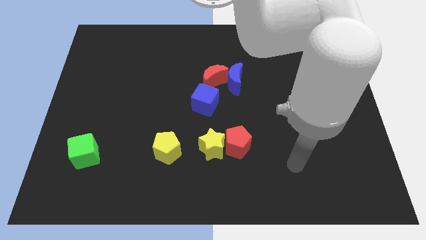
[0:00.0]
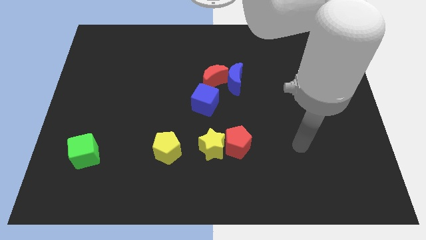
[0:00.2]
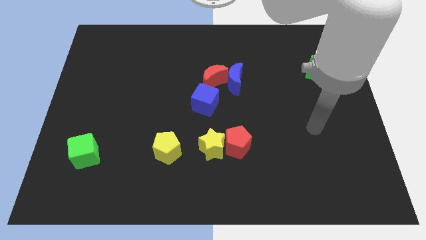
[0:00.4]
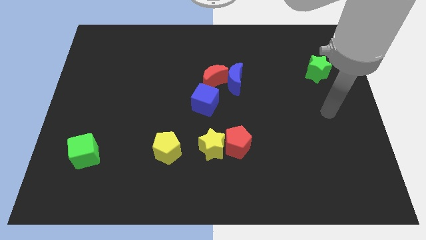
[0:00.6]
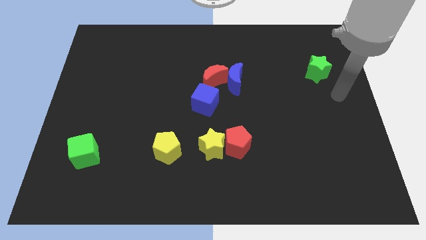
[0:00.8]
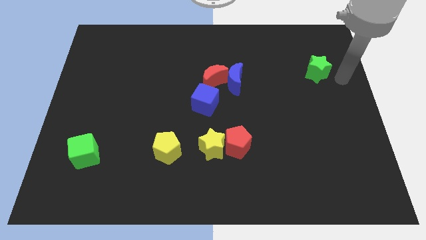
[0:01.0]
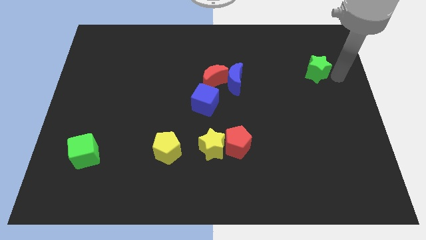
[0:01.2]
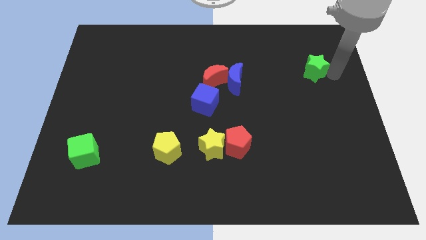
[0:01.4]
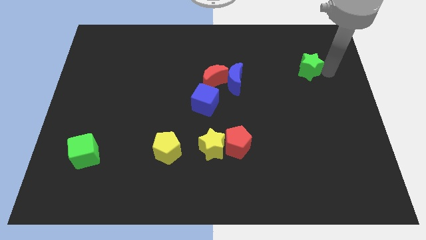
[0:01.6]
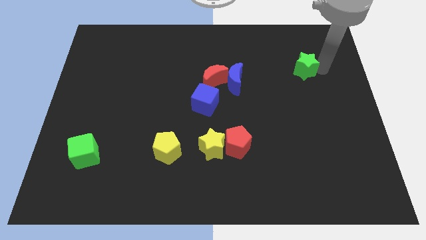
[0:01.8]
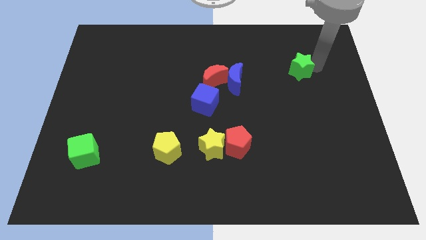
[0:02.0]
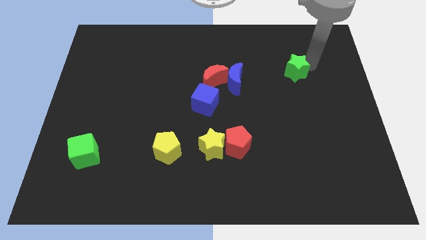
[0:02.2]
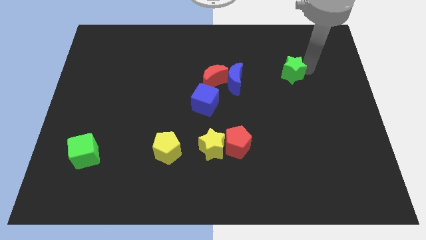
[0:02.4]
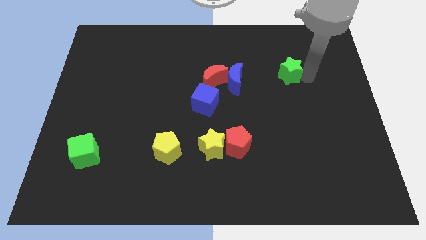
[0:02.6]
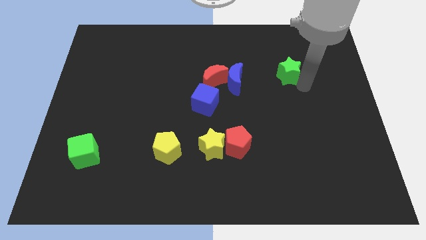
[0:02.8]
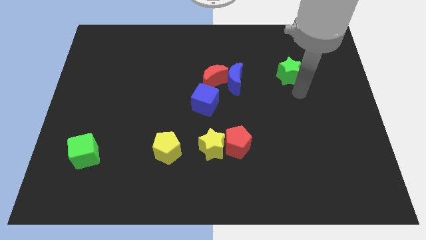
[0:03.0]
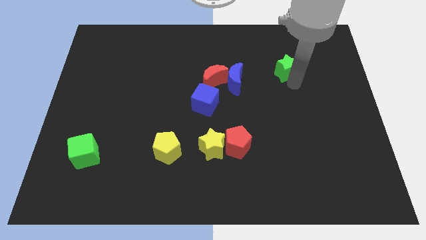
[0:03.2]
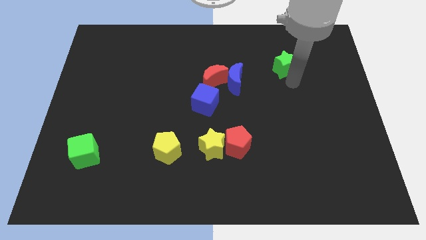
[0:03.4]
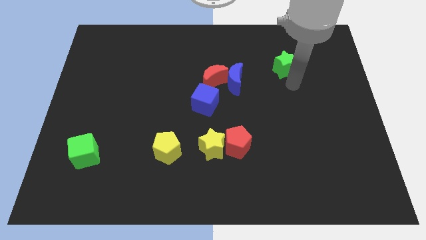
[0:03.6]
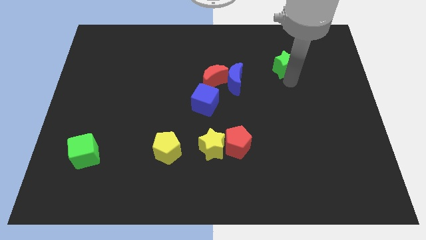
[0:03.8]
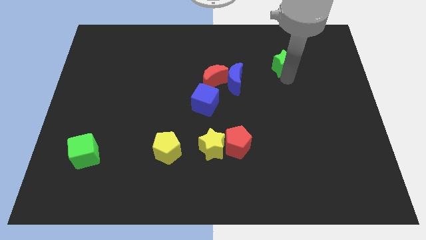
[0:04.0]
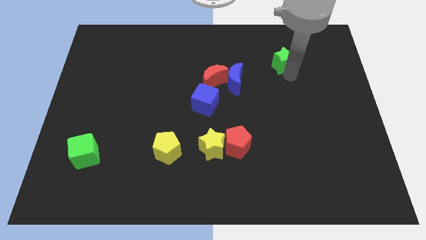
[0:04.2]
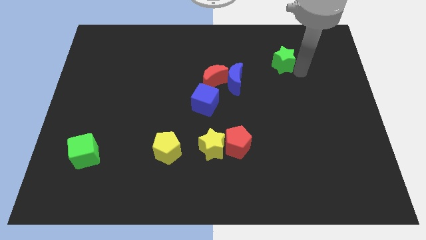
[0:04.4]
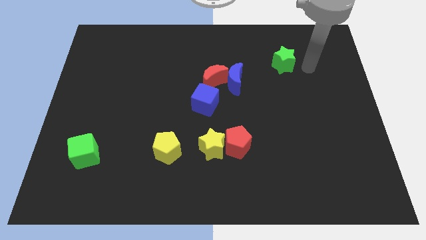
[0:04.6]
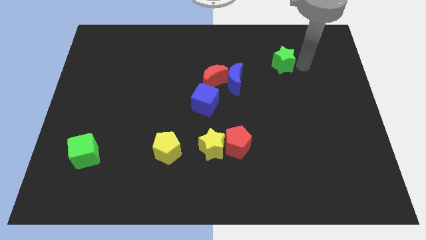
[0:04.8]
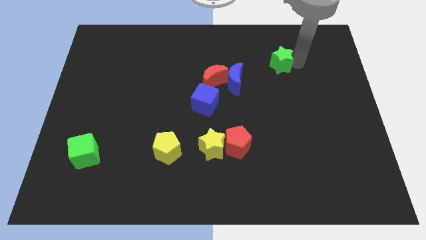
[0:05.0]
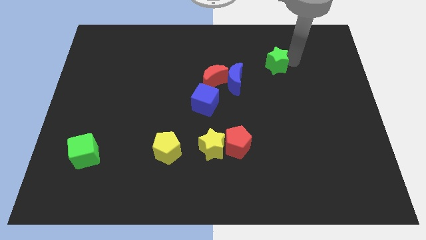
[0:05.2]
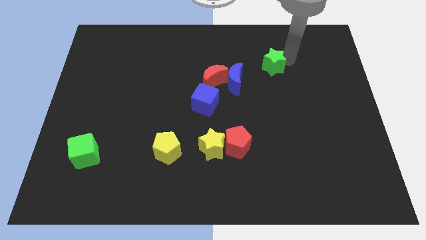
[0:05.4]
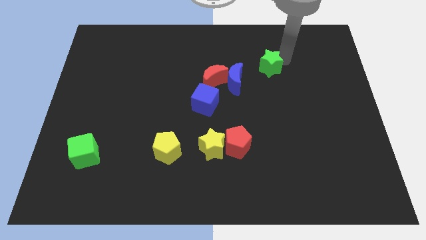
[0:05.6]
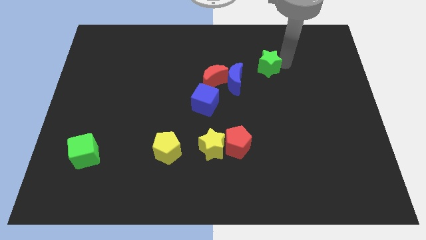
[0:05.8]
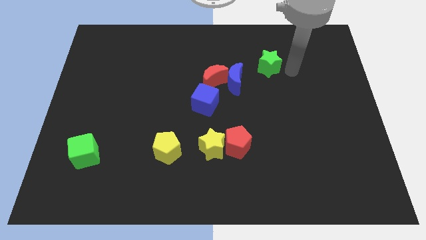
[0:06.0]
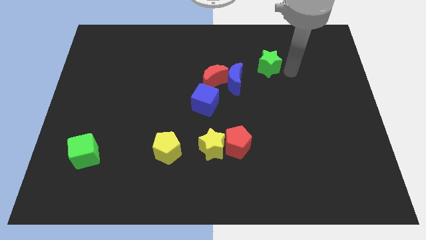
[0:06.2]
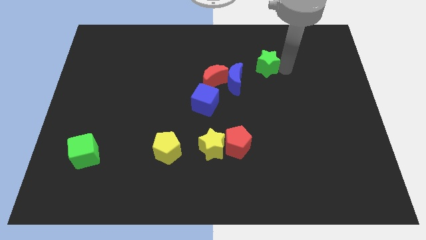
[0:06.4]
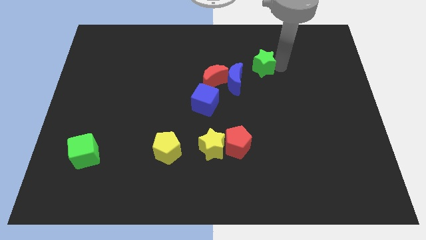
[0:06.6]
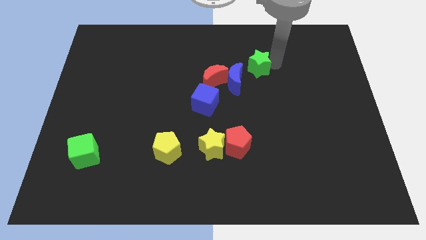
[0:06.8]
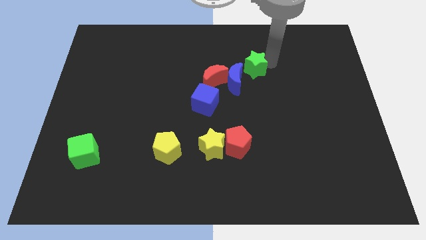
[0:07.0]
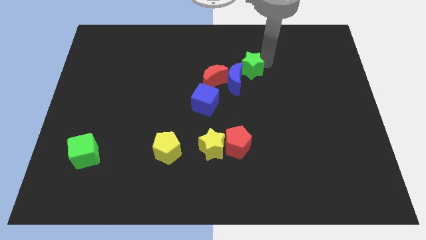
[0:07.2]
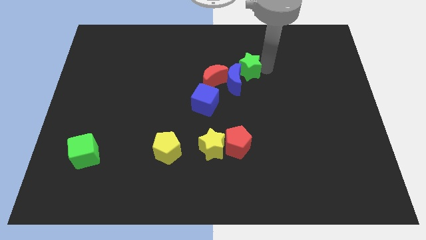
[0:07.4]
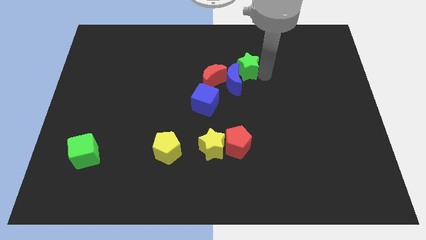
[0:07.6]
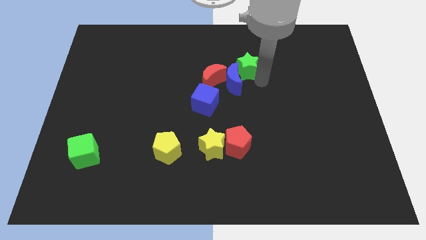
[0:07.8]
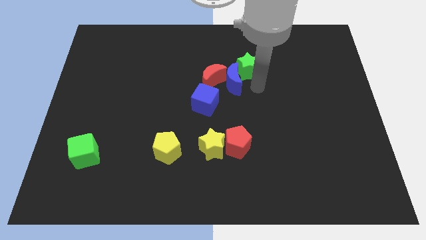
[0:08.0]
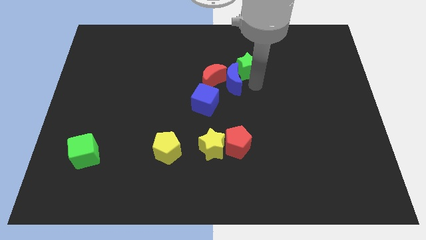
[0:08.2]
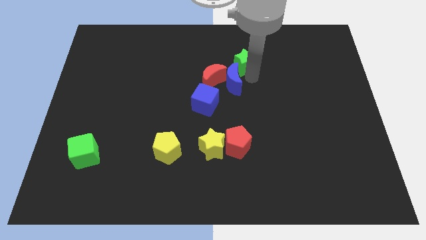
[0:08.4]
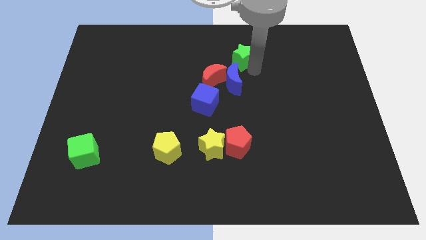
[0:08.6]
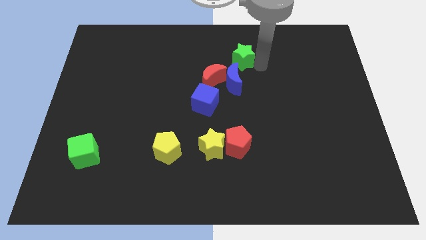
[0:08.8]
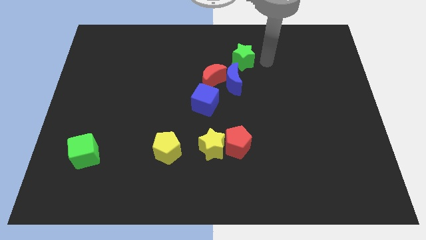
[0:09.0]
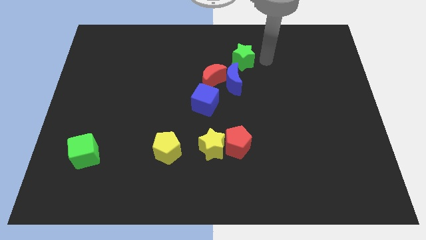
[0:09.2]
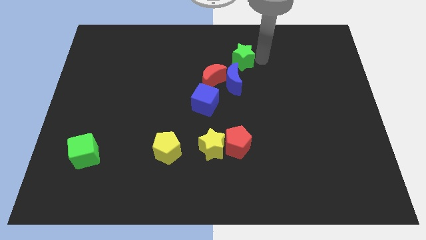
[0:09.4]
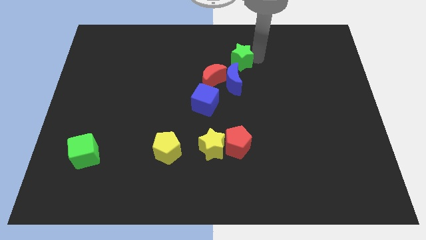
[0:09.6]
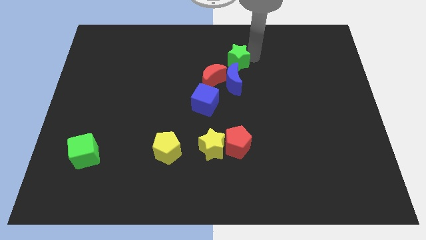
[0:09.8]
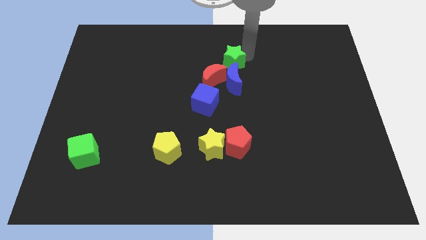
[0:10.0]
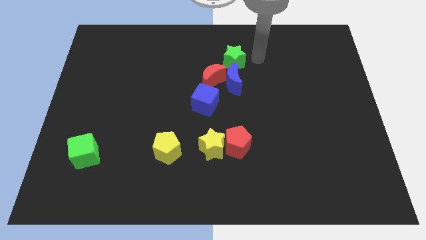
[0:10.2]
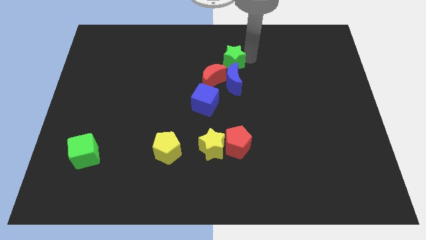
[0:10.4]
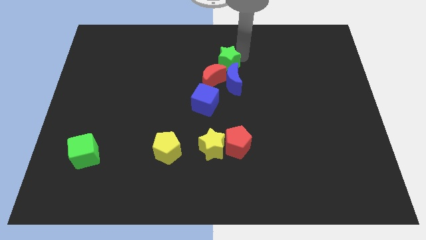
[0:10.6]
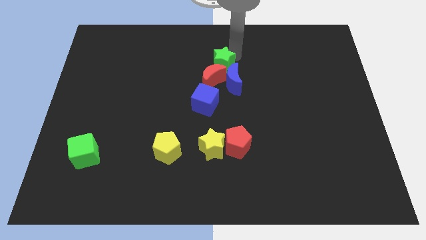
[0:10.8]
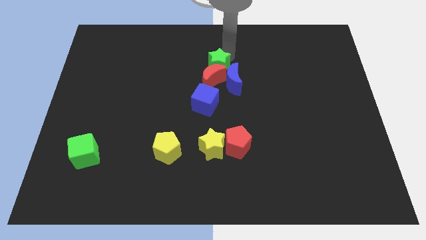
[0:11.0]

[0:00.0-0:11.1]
push the green star to the top left side of the red moon

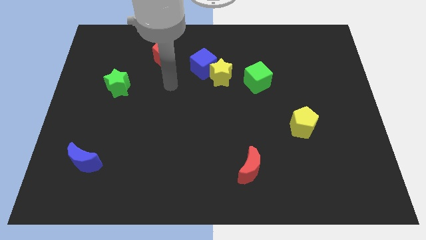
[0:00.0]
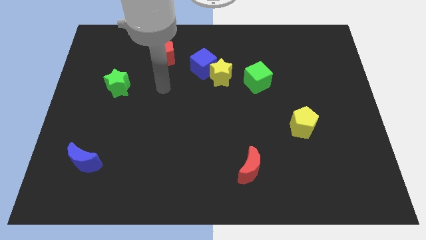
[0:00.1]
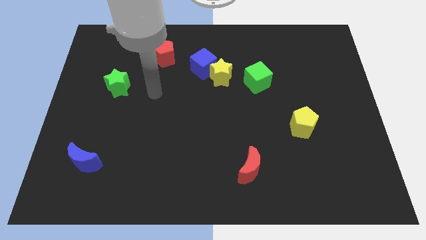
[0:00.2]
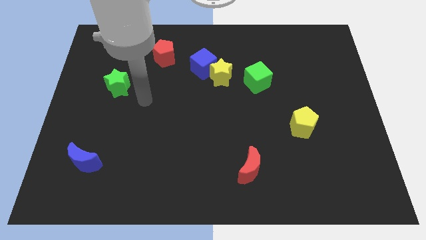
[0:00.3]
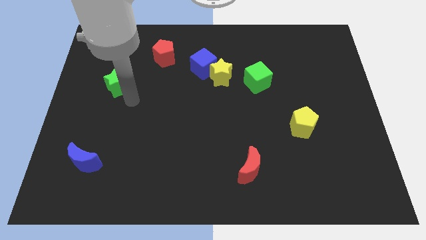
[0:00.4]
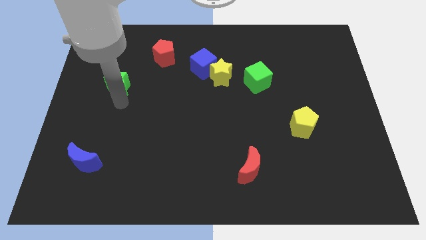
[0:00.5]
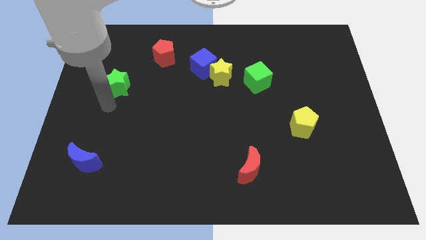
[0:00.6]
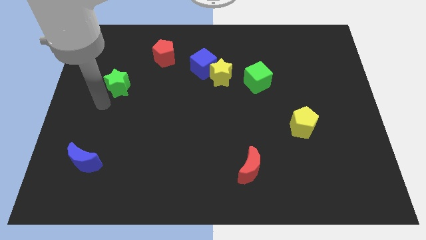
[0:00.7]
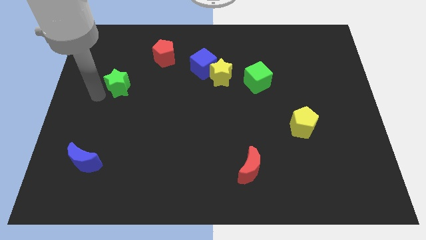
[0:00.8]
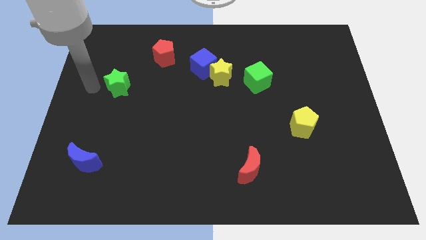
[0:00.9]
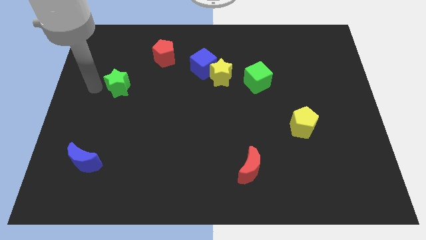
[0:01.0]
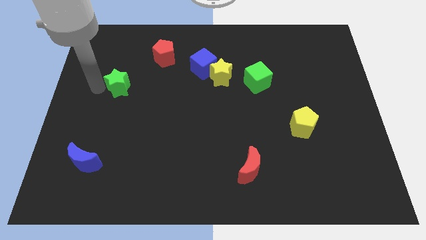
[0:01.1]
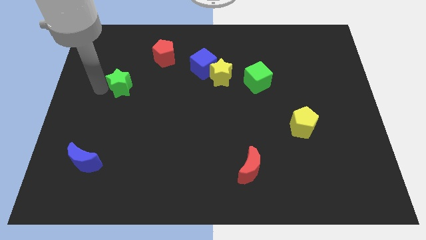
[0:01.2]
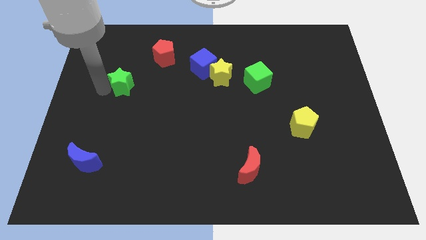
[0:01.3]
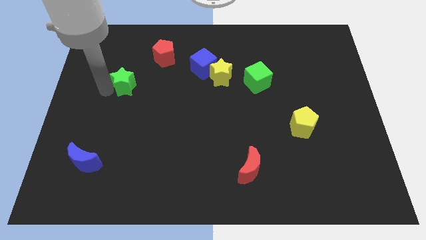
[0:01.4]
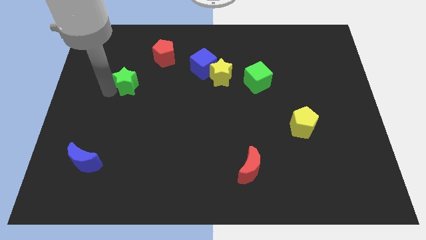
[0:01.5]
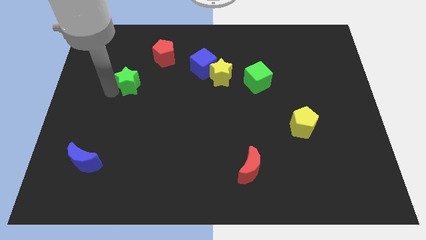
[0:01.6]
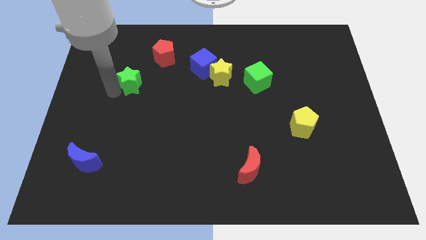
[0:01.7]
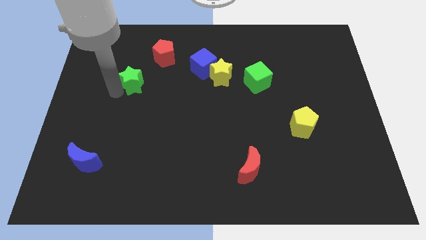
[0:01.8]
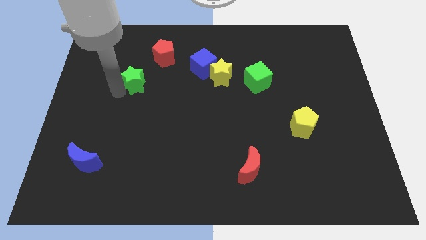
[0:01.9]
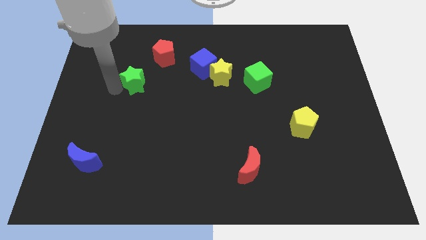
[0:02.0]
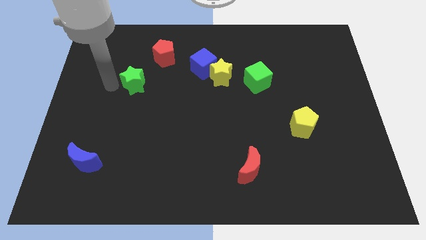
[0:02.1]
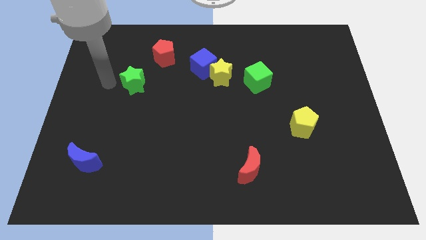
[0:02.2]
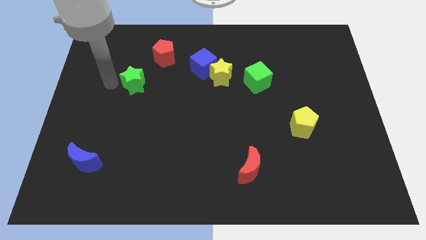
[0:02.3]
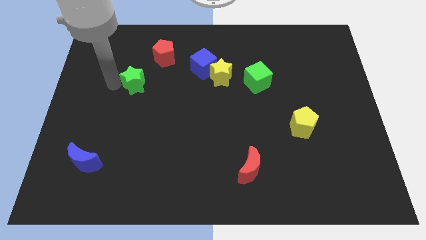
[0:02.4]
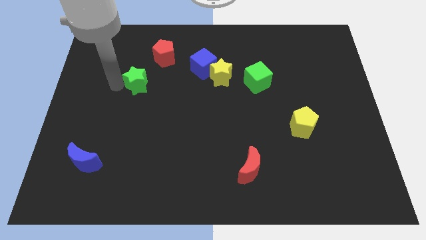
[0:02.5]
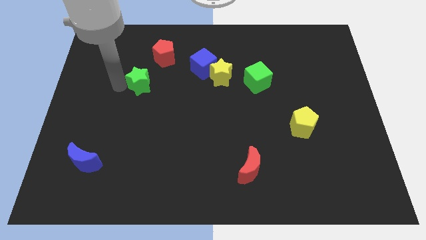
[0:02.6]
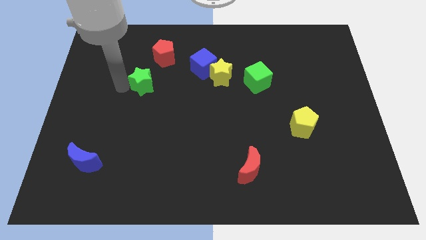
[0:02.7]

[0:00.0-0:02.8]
move the green star below the red pentagon
